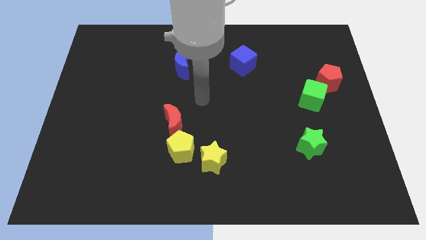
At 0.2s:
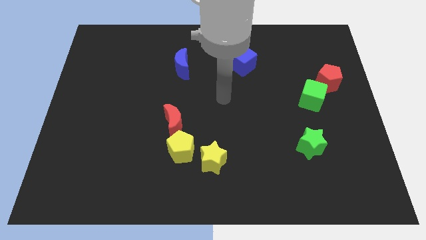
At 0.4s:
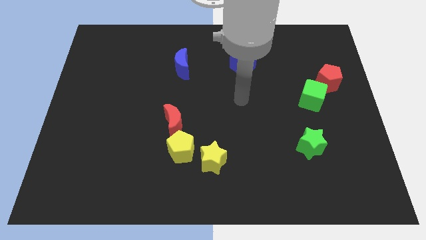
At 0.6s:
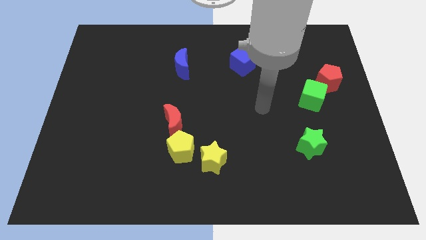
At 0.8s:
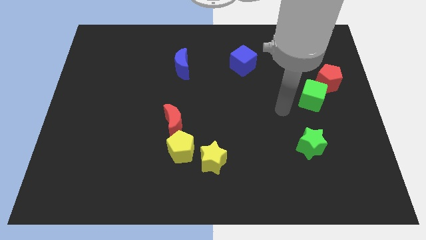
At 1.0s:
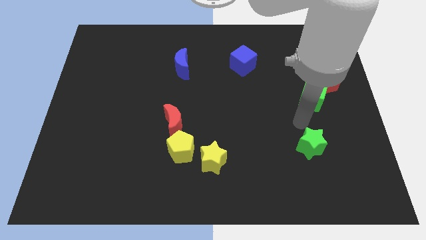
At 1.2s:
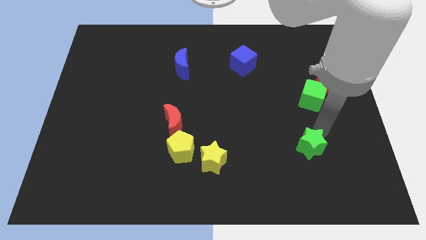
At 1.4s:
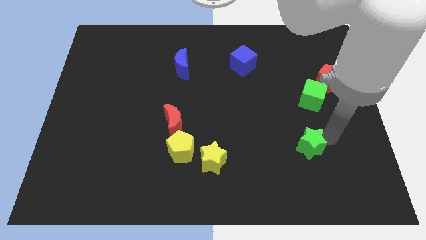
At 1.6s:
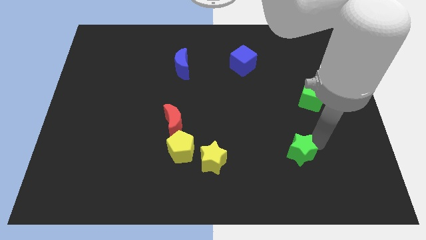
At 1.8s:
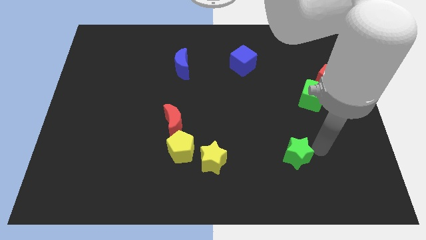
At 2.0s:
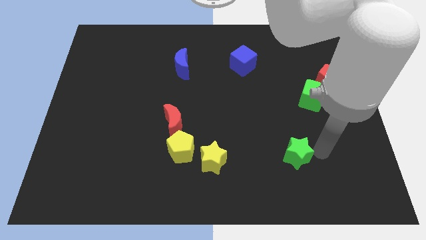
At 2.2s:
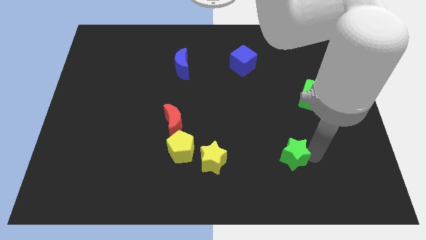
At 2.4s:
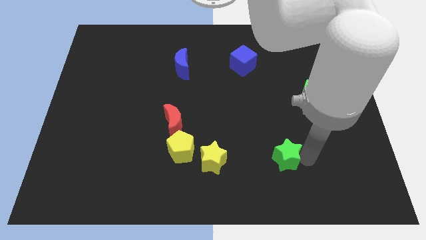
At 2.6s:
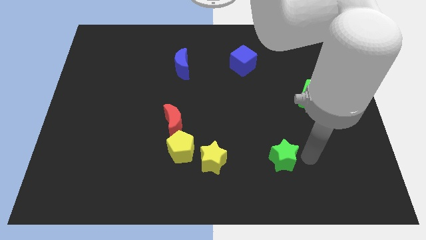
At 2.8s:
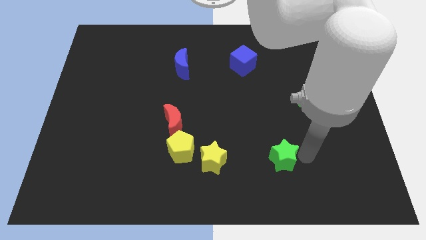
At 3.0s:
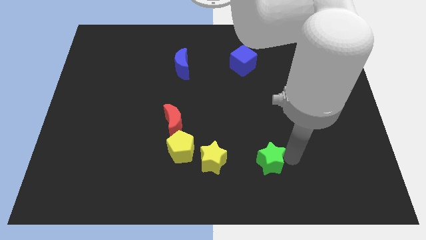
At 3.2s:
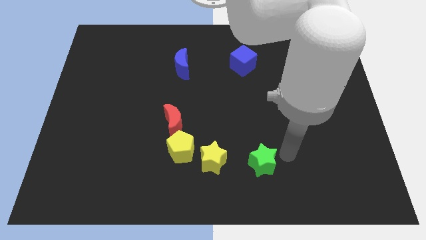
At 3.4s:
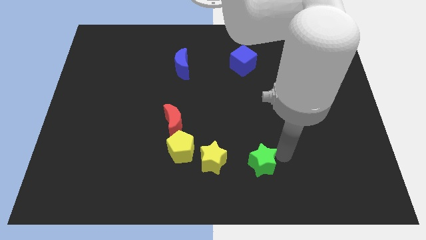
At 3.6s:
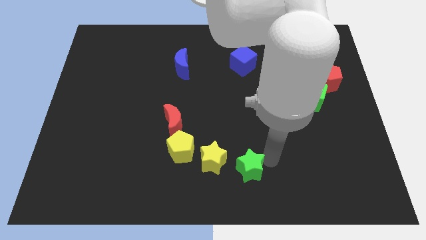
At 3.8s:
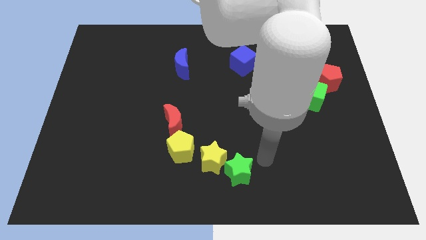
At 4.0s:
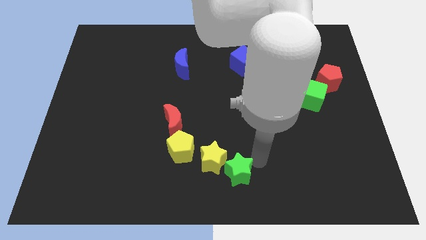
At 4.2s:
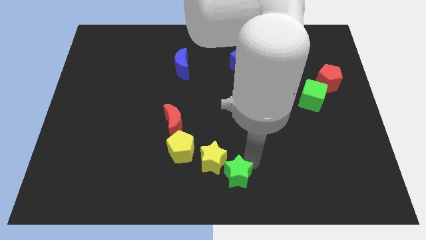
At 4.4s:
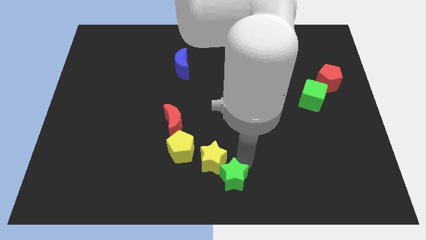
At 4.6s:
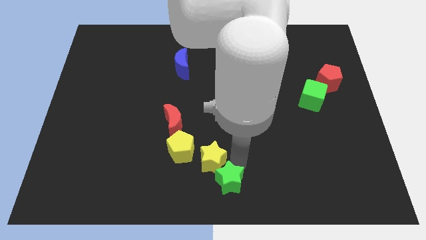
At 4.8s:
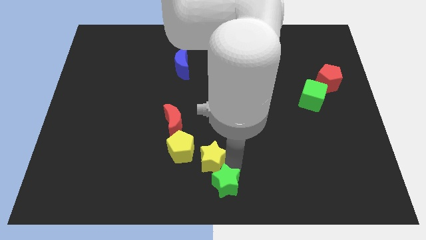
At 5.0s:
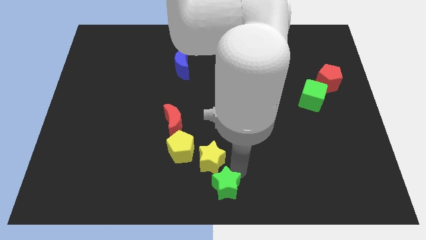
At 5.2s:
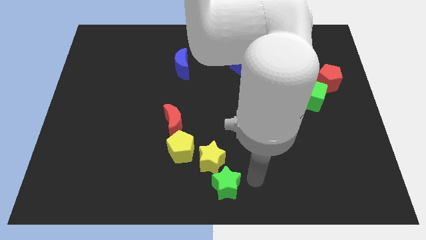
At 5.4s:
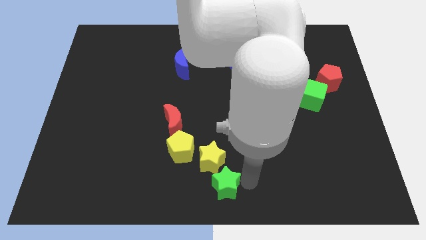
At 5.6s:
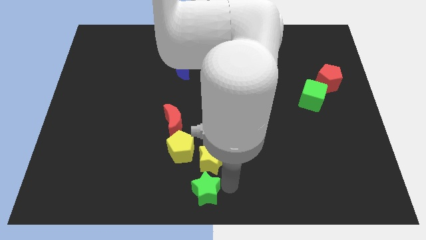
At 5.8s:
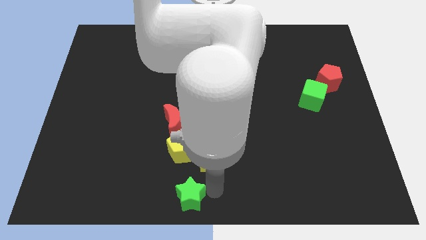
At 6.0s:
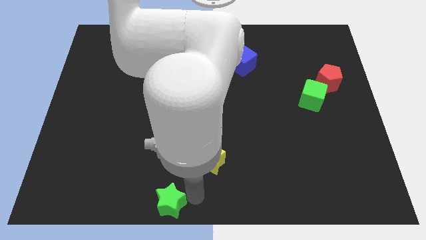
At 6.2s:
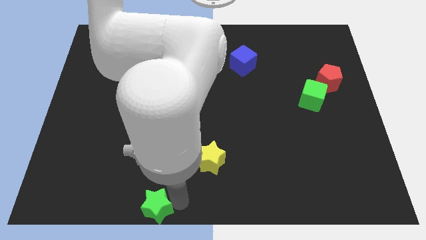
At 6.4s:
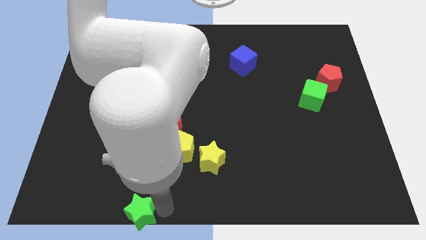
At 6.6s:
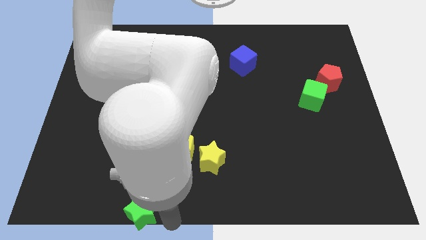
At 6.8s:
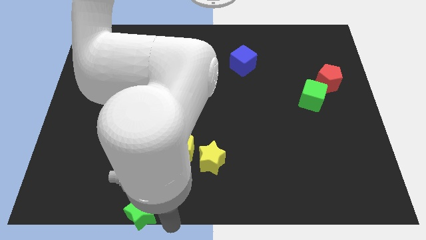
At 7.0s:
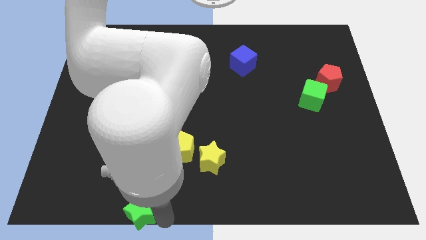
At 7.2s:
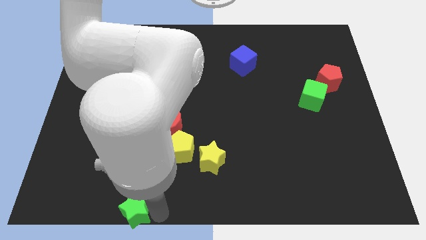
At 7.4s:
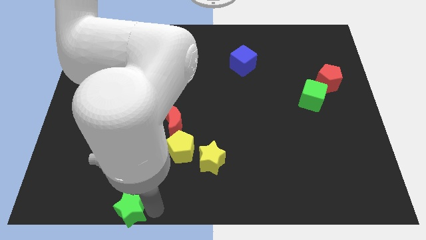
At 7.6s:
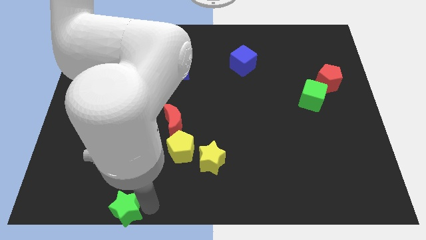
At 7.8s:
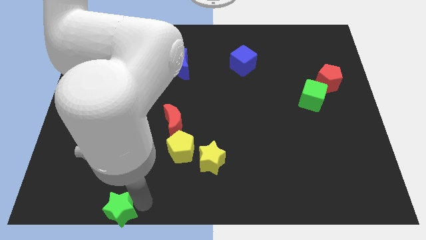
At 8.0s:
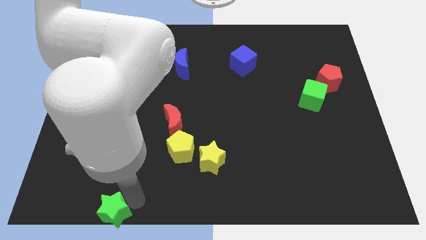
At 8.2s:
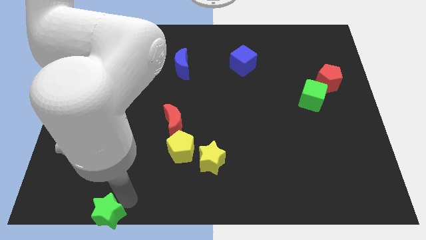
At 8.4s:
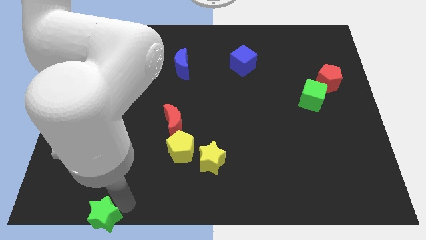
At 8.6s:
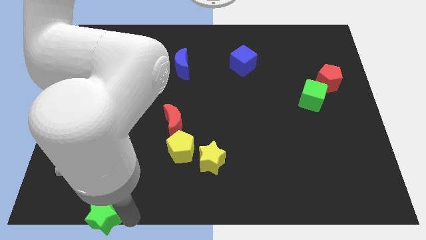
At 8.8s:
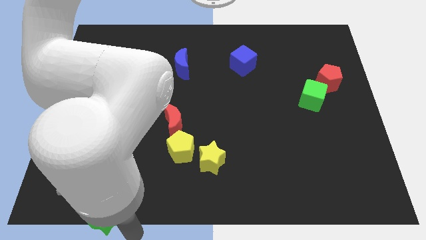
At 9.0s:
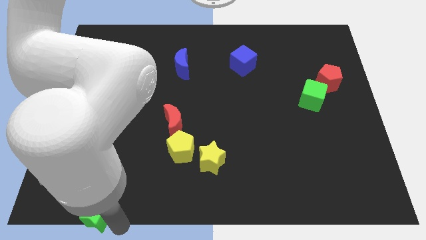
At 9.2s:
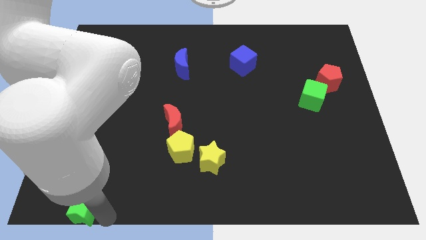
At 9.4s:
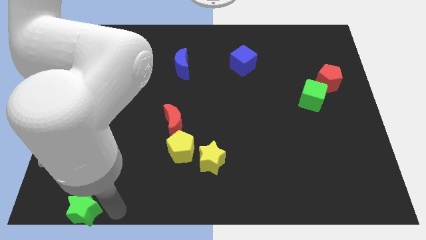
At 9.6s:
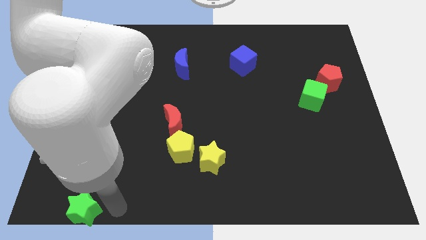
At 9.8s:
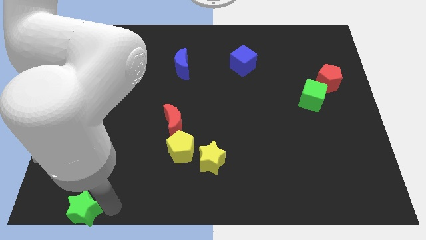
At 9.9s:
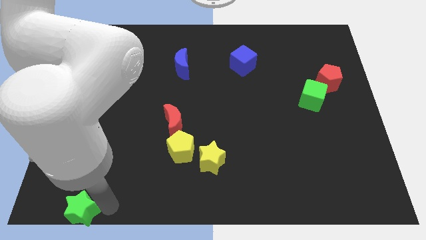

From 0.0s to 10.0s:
move the green star to the bottom left corner

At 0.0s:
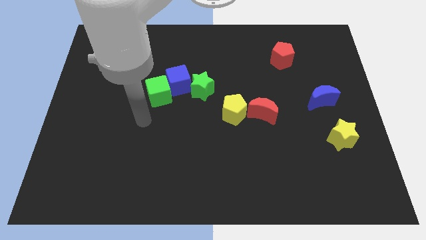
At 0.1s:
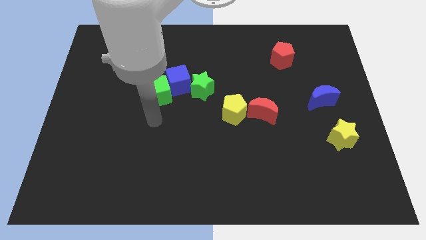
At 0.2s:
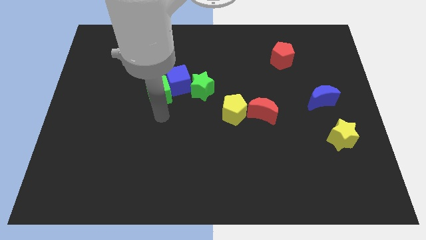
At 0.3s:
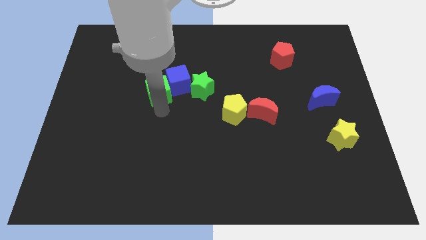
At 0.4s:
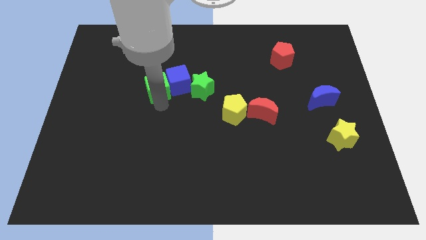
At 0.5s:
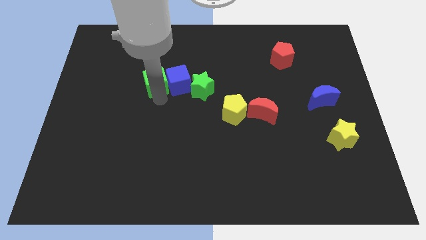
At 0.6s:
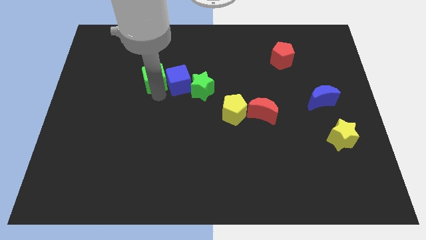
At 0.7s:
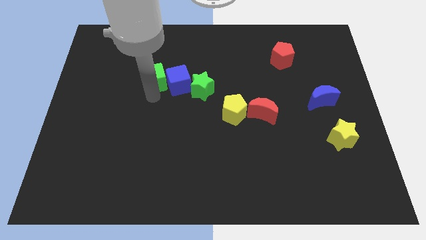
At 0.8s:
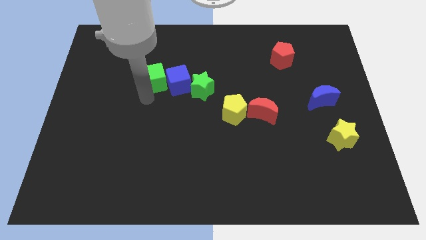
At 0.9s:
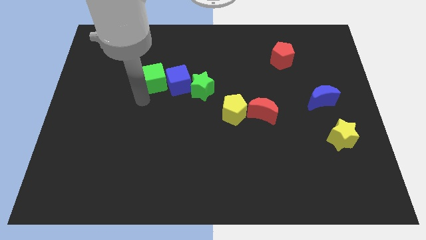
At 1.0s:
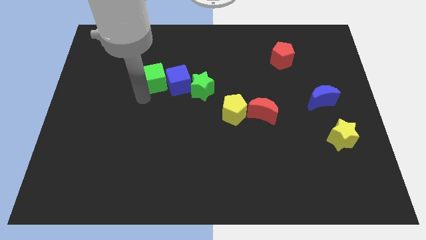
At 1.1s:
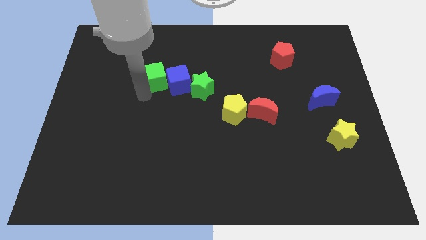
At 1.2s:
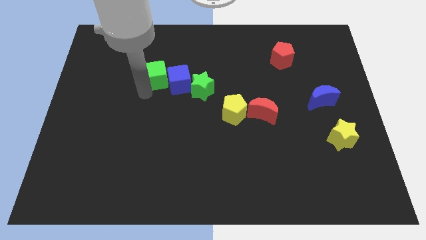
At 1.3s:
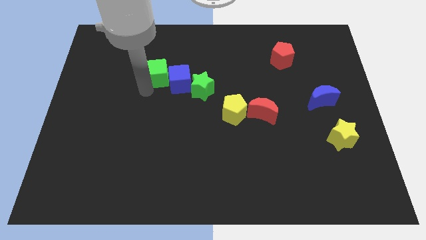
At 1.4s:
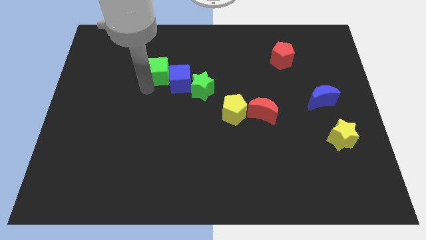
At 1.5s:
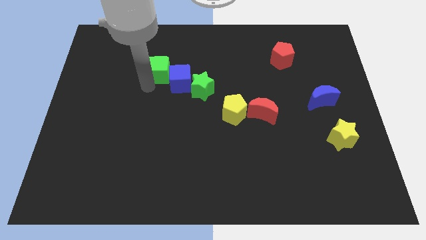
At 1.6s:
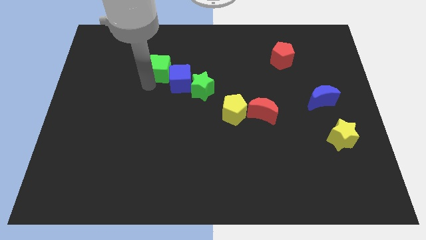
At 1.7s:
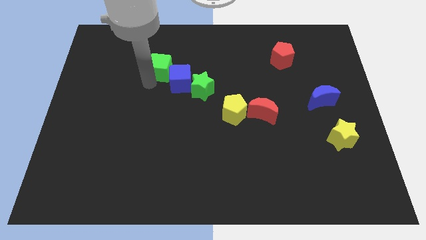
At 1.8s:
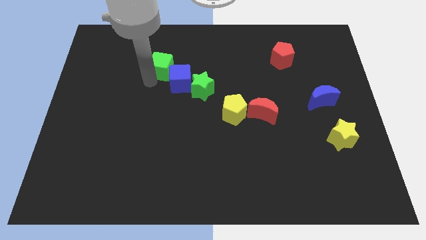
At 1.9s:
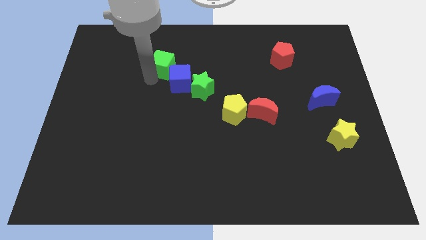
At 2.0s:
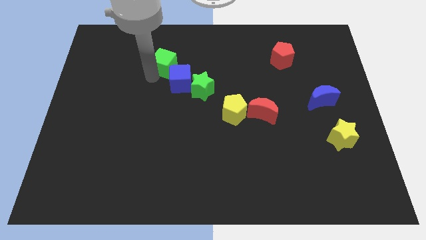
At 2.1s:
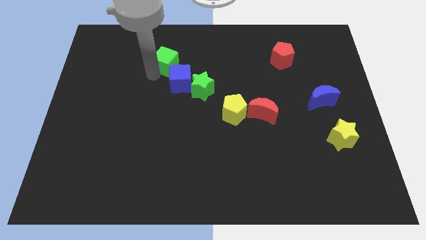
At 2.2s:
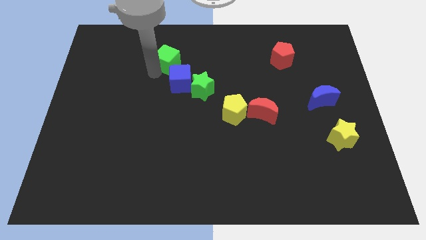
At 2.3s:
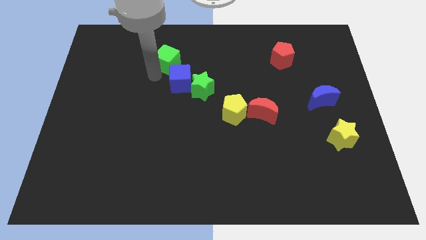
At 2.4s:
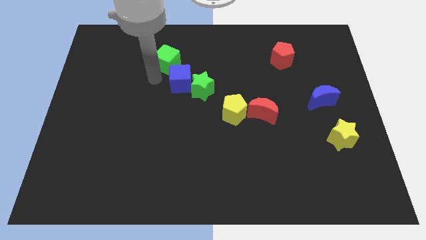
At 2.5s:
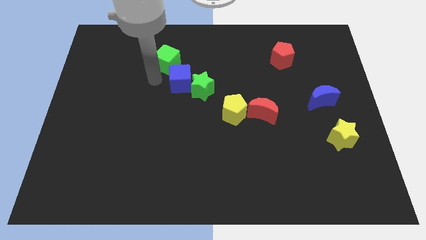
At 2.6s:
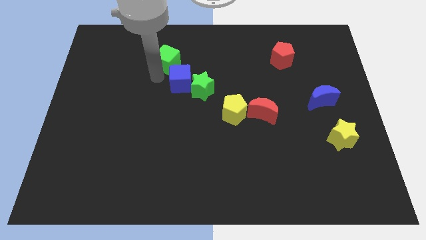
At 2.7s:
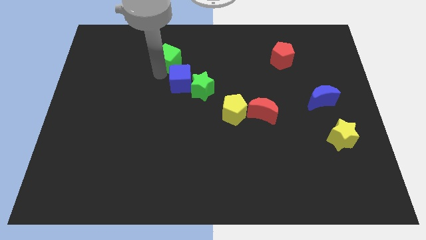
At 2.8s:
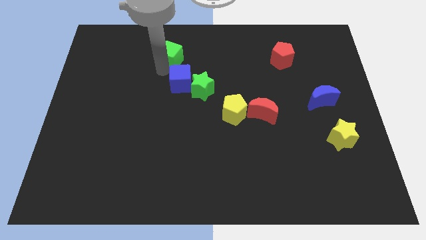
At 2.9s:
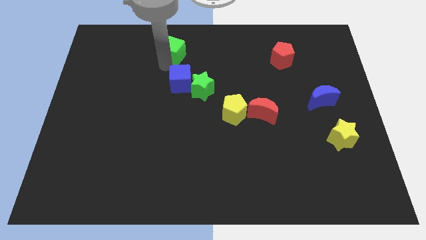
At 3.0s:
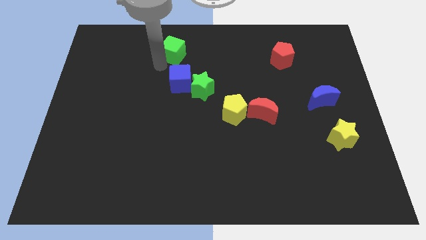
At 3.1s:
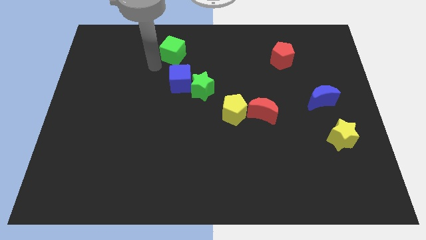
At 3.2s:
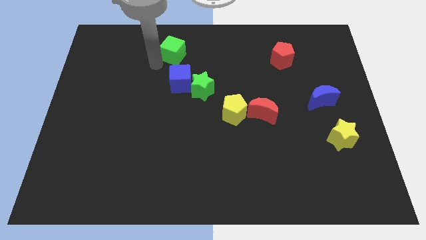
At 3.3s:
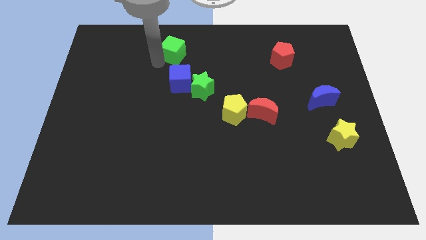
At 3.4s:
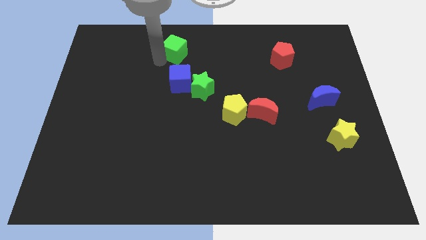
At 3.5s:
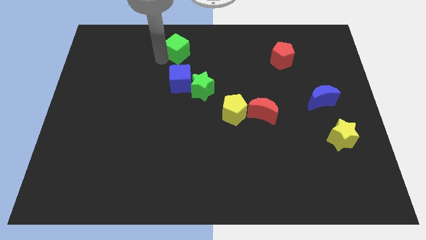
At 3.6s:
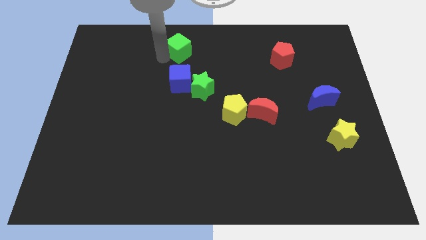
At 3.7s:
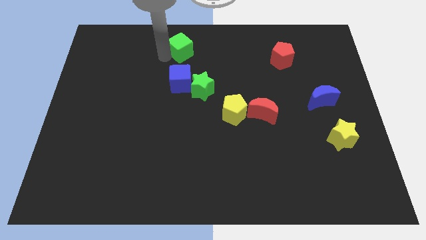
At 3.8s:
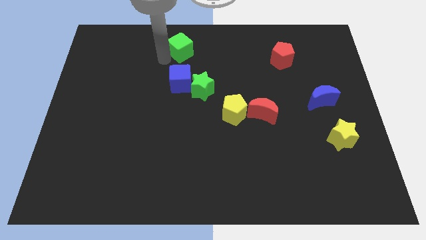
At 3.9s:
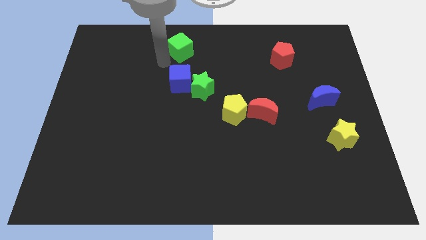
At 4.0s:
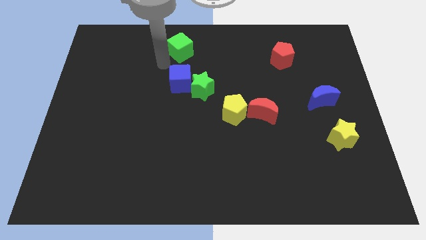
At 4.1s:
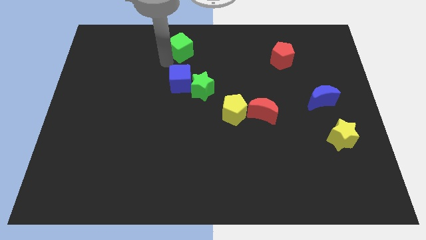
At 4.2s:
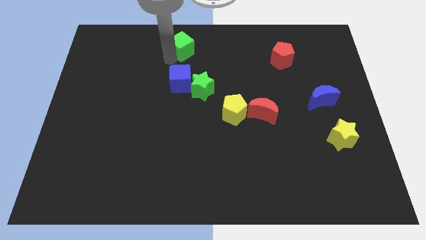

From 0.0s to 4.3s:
put the green cube to the towards your base
